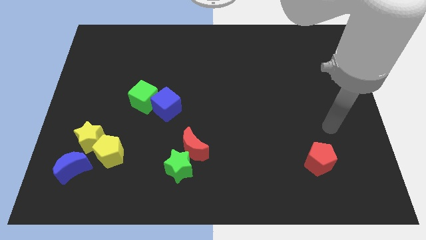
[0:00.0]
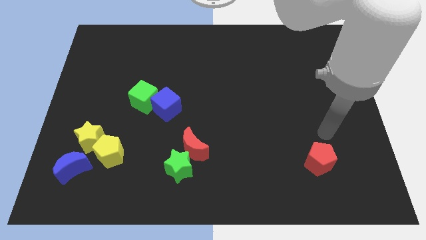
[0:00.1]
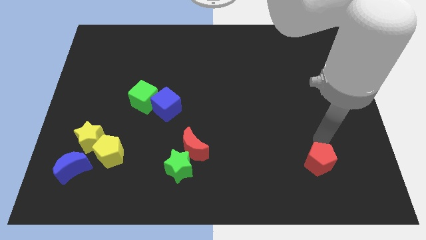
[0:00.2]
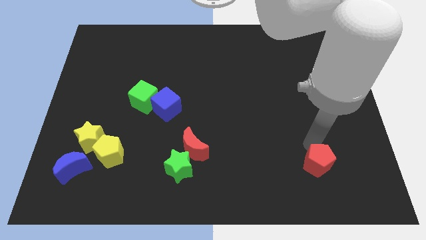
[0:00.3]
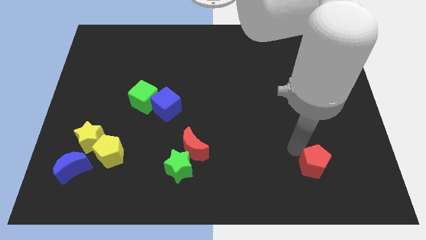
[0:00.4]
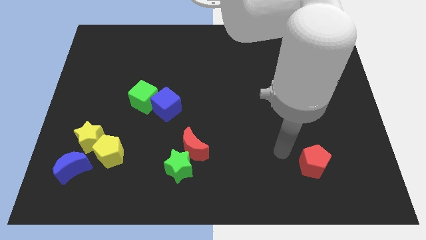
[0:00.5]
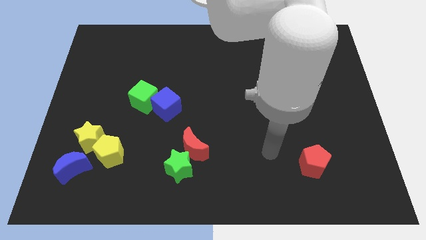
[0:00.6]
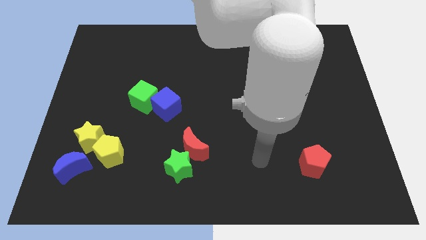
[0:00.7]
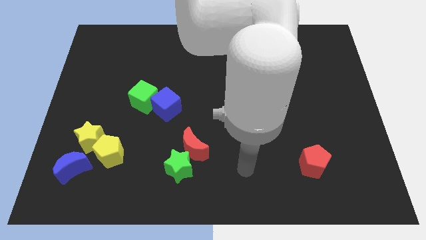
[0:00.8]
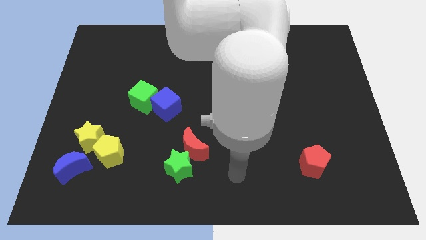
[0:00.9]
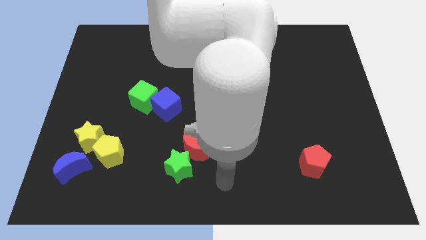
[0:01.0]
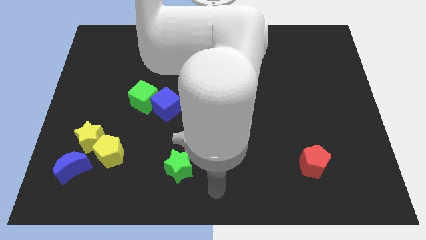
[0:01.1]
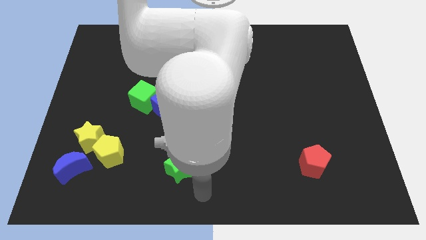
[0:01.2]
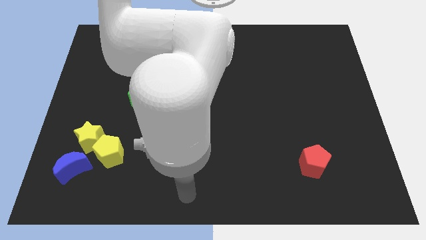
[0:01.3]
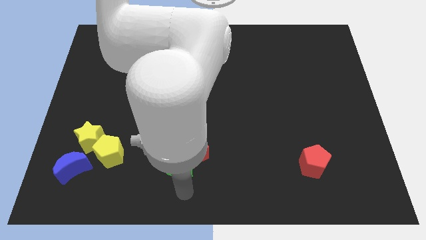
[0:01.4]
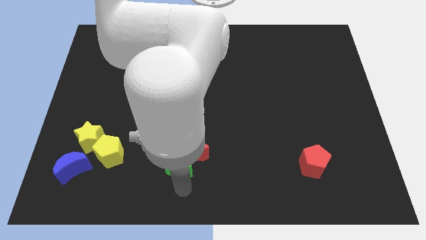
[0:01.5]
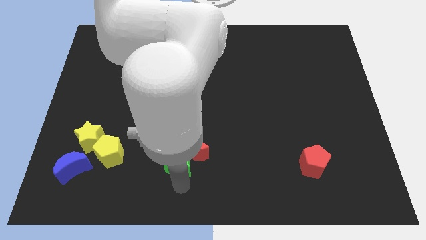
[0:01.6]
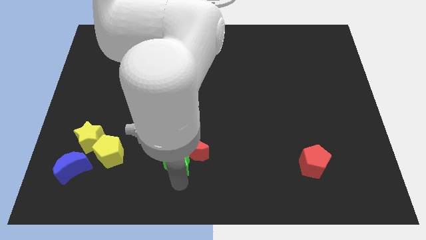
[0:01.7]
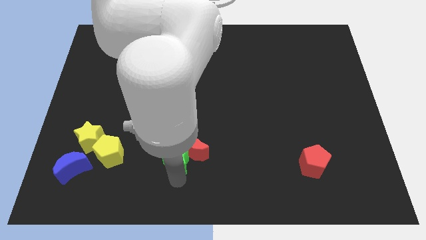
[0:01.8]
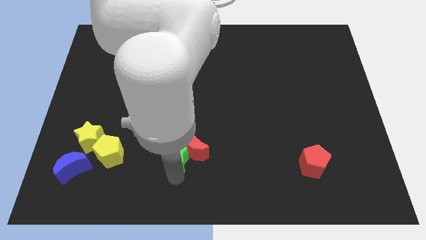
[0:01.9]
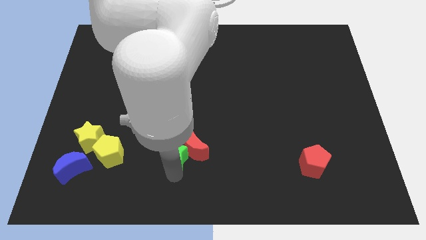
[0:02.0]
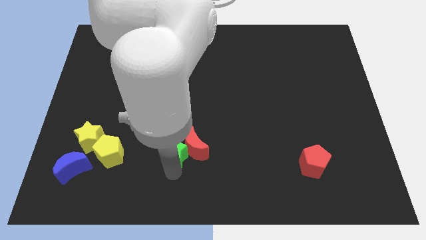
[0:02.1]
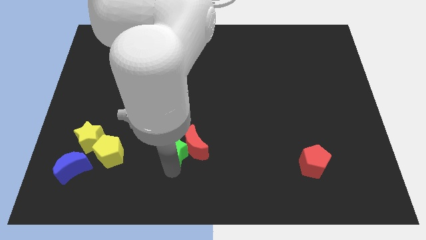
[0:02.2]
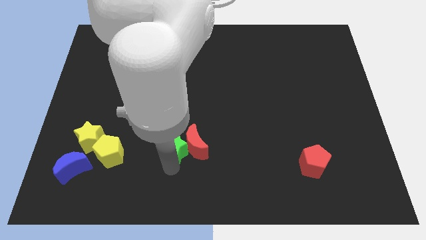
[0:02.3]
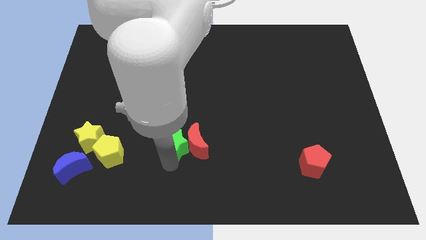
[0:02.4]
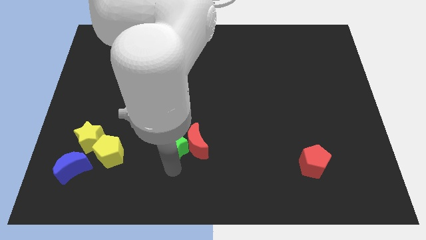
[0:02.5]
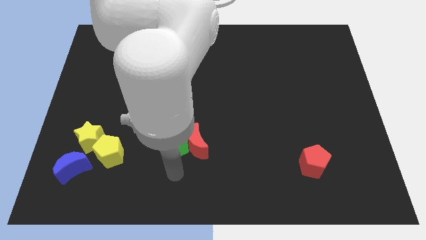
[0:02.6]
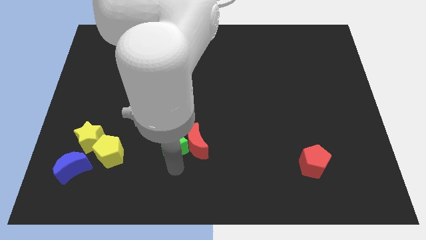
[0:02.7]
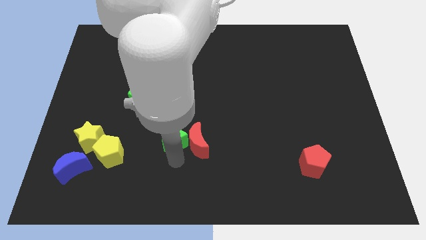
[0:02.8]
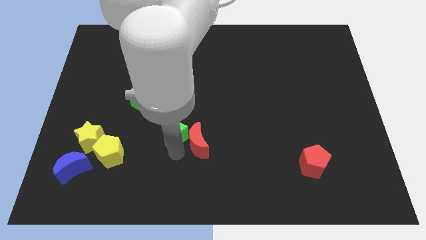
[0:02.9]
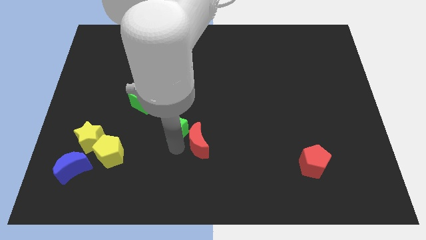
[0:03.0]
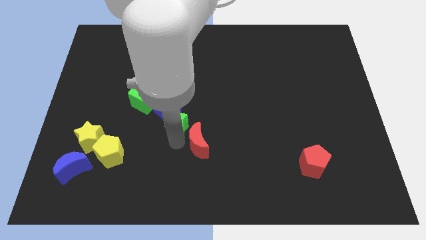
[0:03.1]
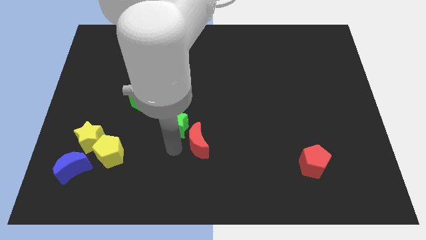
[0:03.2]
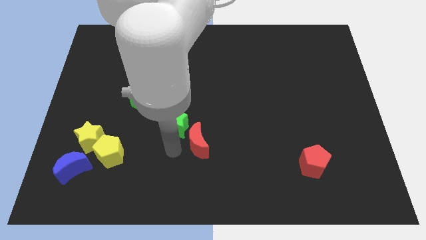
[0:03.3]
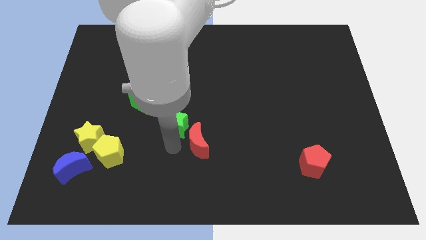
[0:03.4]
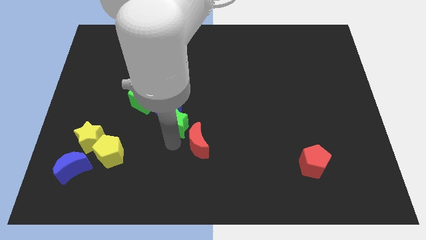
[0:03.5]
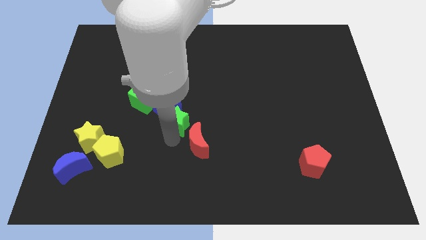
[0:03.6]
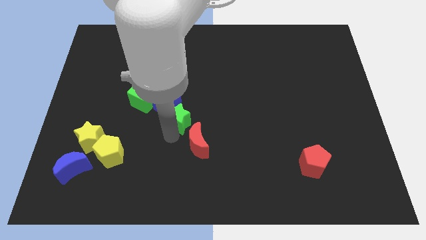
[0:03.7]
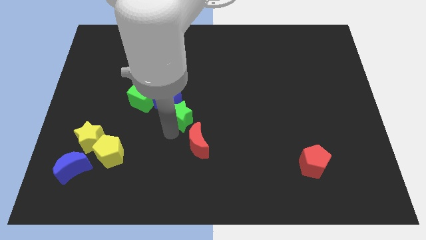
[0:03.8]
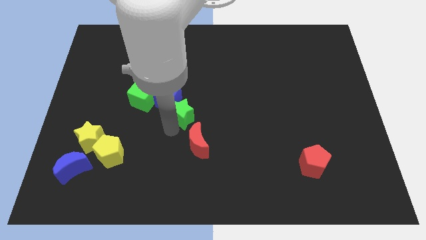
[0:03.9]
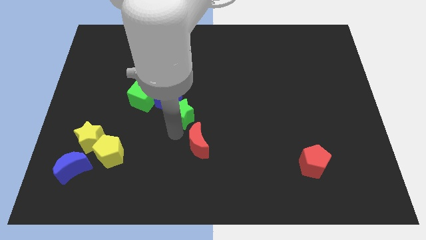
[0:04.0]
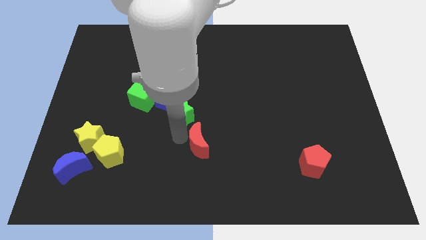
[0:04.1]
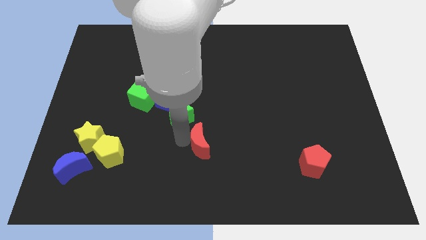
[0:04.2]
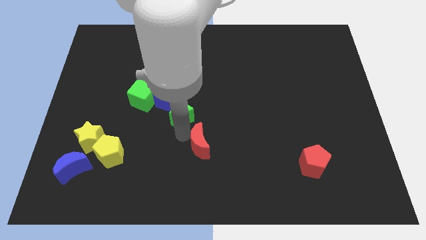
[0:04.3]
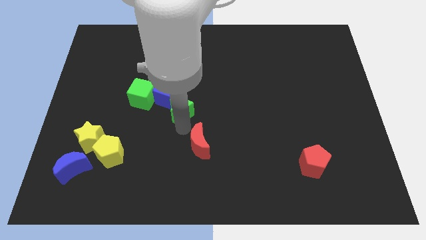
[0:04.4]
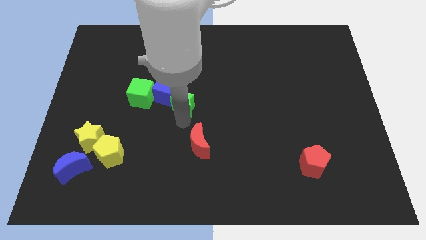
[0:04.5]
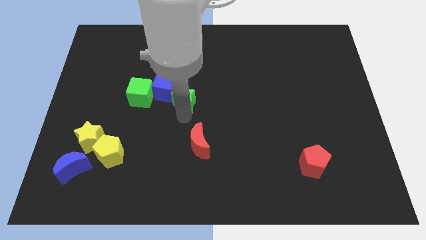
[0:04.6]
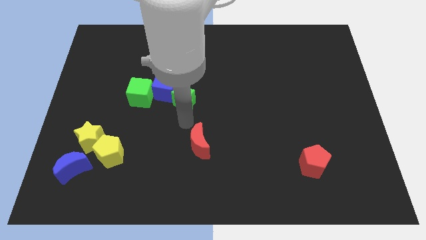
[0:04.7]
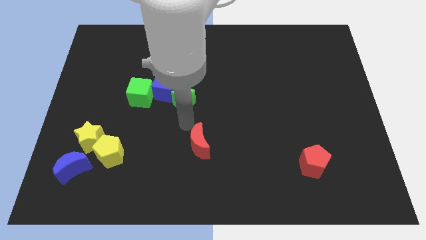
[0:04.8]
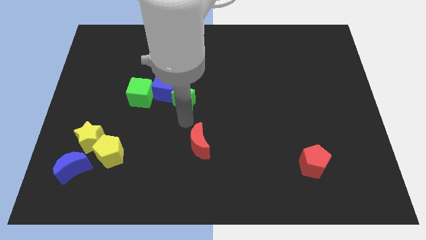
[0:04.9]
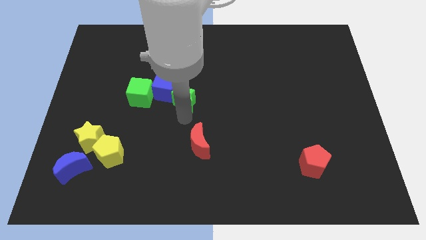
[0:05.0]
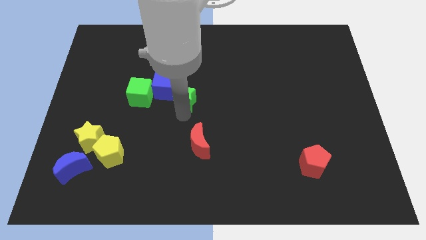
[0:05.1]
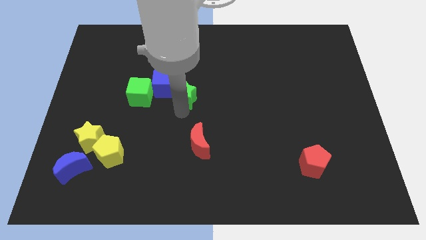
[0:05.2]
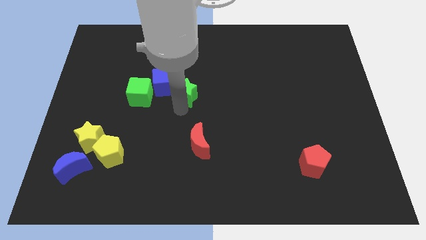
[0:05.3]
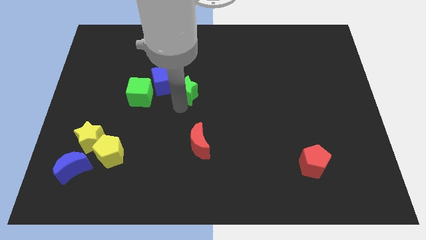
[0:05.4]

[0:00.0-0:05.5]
push the green star up

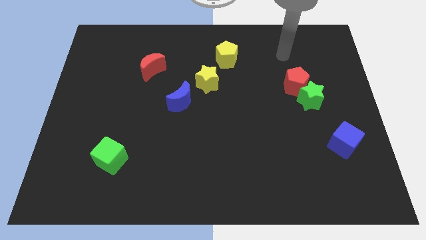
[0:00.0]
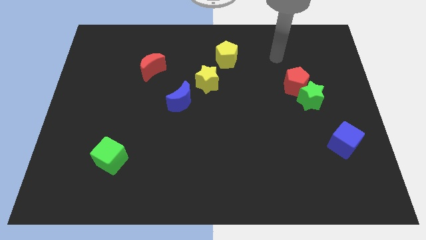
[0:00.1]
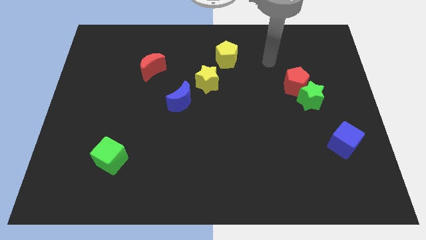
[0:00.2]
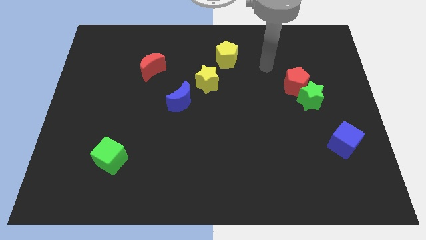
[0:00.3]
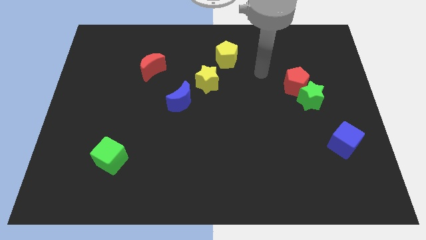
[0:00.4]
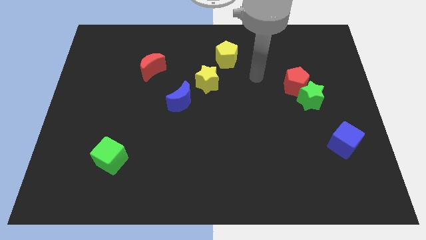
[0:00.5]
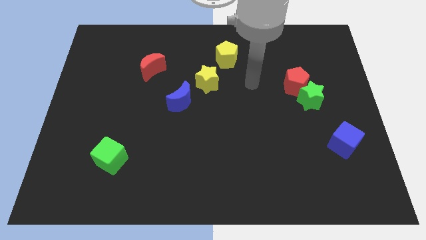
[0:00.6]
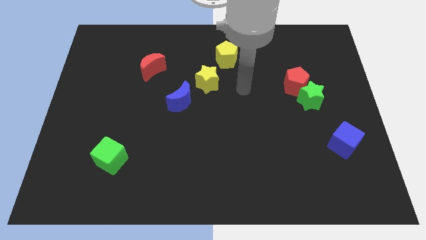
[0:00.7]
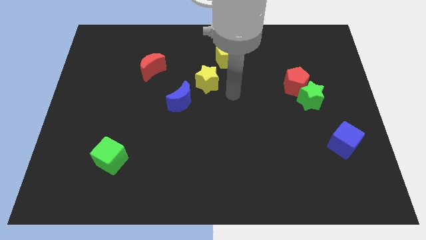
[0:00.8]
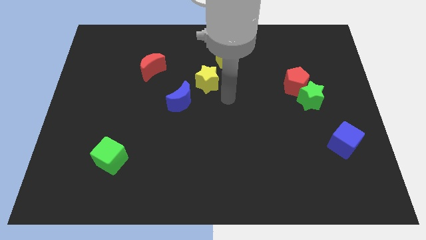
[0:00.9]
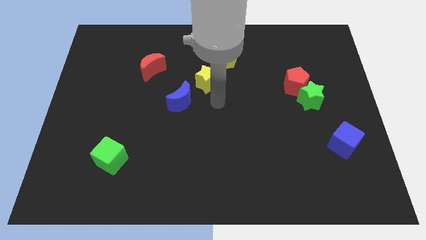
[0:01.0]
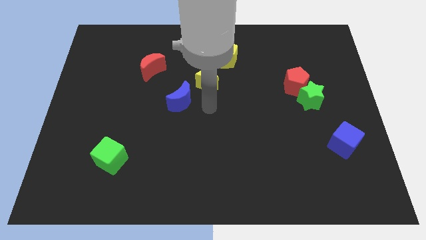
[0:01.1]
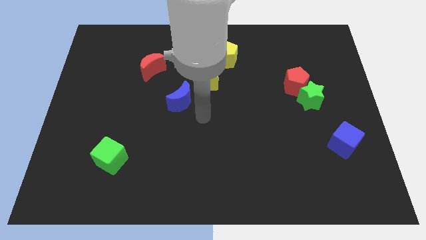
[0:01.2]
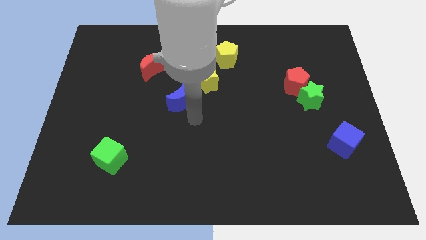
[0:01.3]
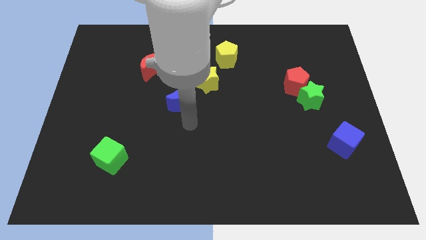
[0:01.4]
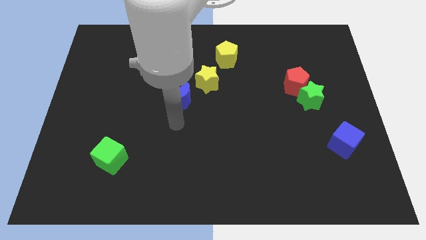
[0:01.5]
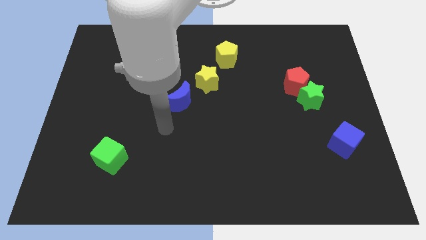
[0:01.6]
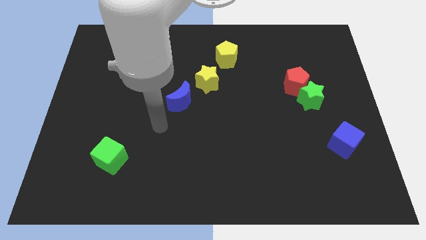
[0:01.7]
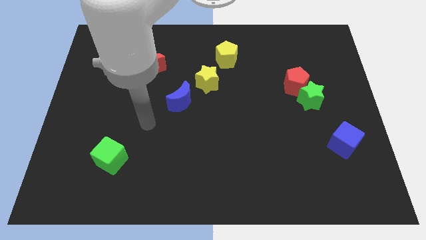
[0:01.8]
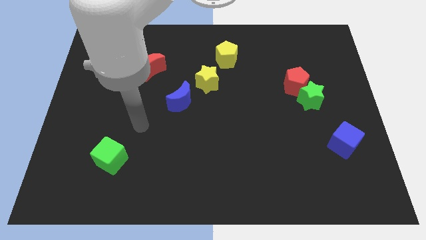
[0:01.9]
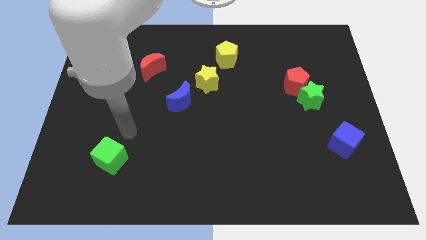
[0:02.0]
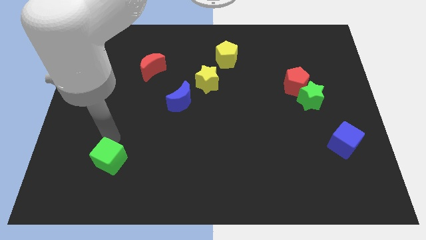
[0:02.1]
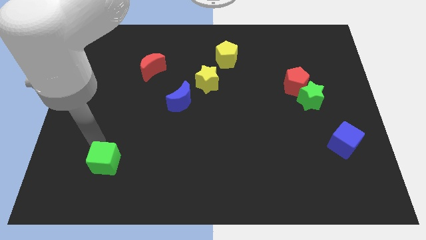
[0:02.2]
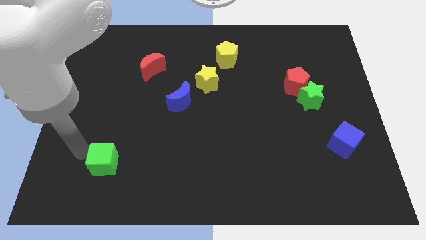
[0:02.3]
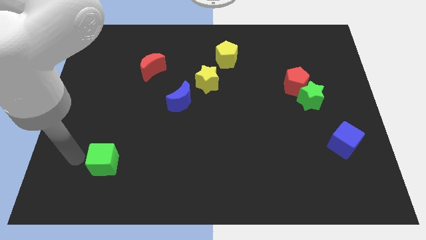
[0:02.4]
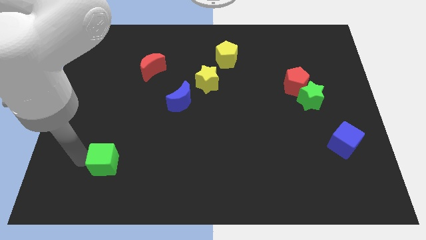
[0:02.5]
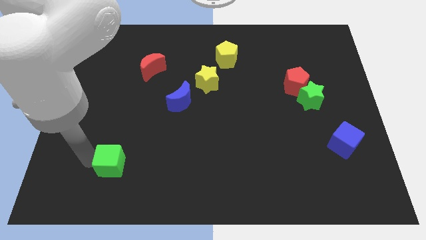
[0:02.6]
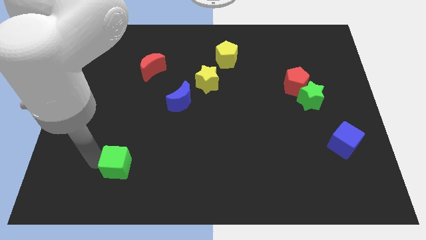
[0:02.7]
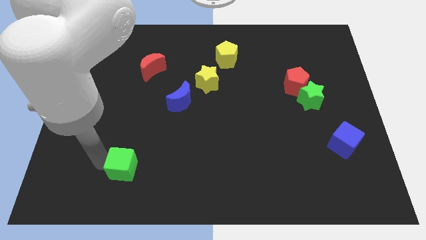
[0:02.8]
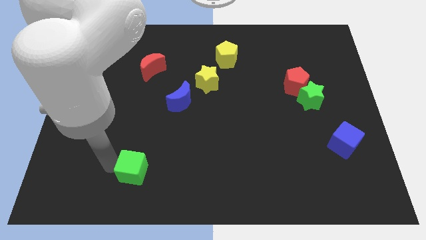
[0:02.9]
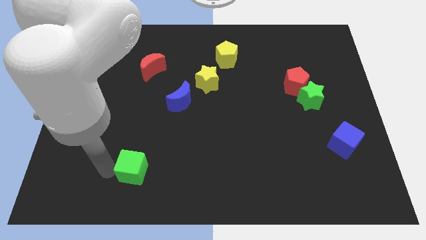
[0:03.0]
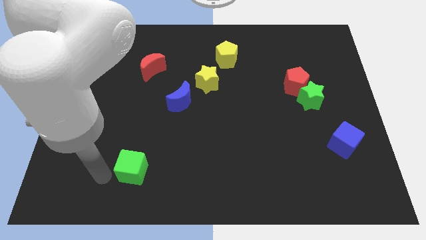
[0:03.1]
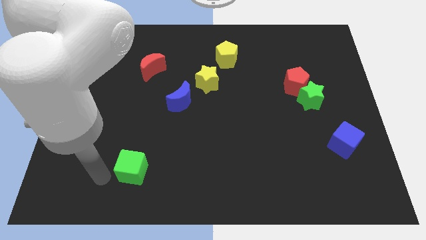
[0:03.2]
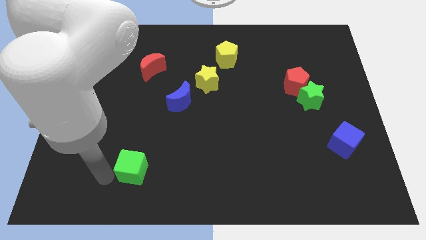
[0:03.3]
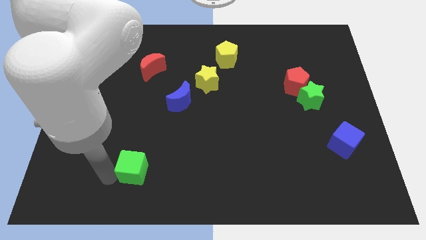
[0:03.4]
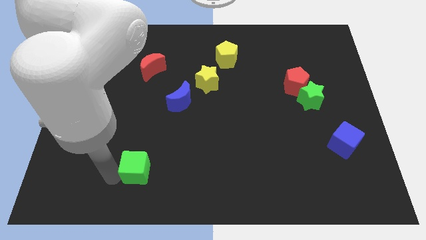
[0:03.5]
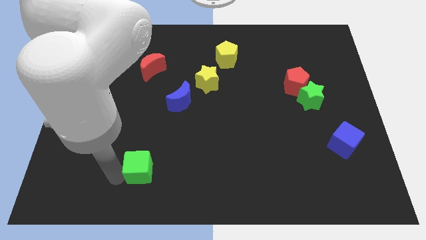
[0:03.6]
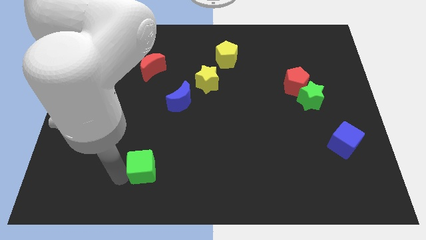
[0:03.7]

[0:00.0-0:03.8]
push the green cube right a little
